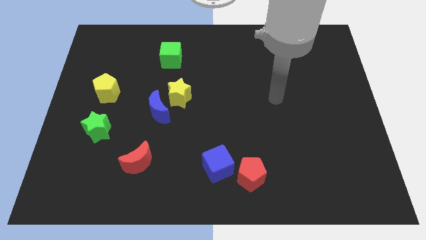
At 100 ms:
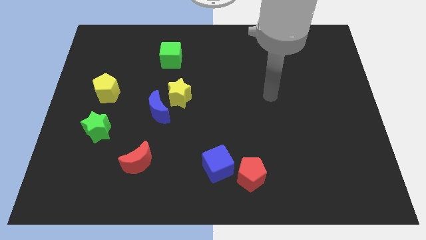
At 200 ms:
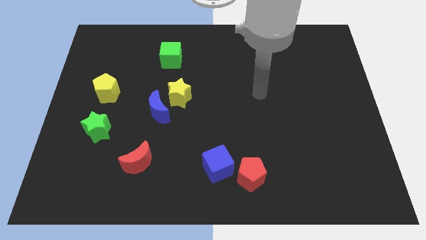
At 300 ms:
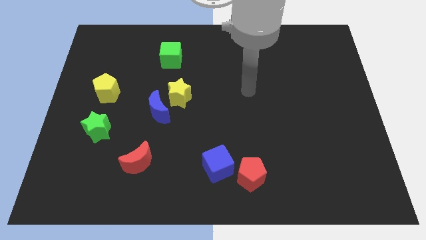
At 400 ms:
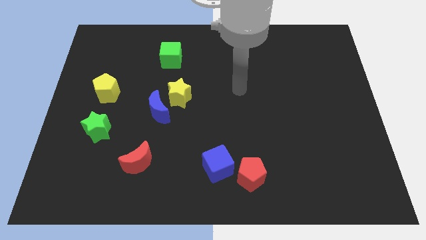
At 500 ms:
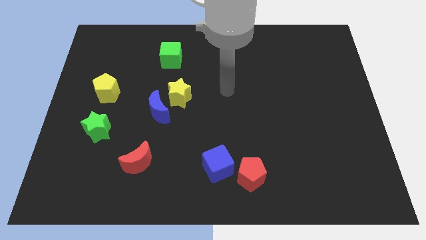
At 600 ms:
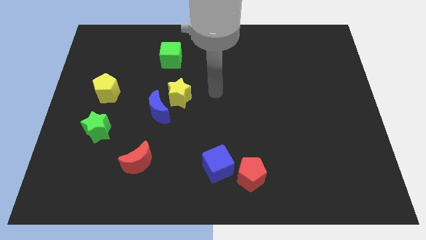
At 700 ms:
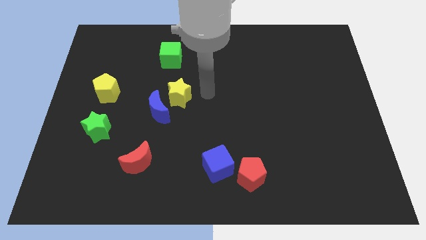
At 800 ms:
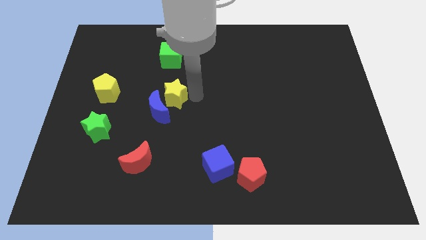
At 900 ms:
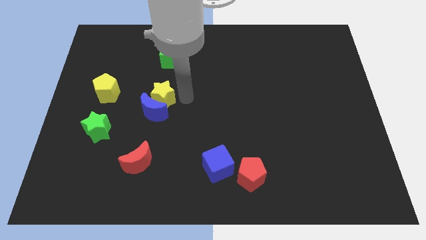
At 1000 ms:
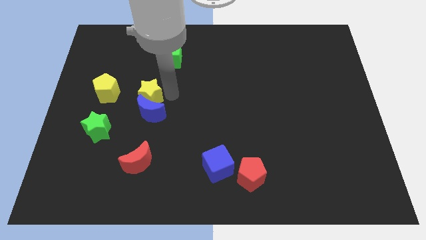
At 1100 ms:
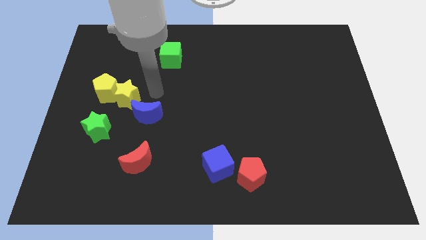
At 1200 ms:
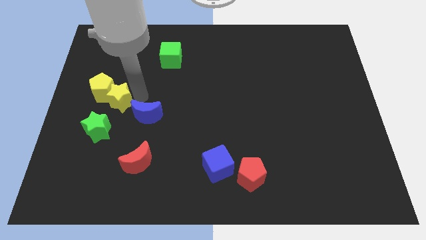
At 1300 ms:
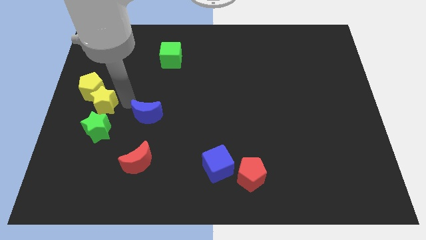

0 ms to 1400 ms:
move the blue moon away from the yellow star

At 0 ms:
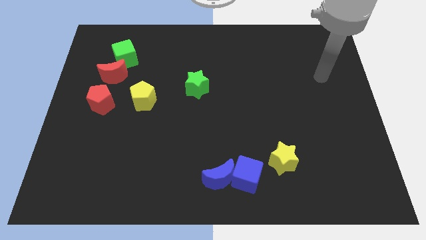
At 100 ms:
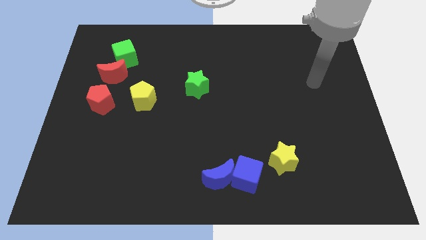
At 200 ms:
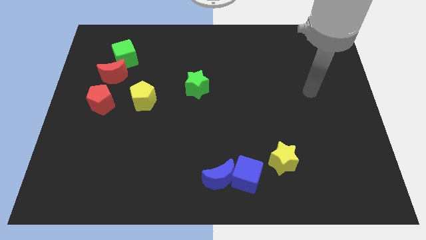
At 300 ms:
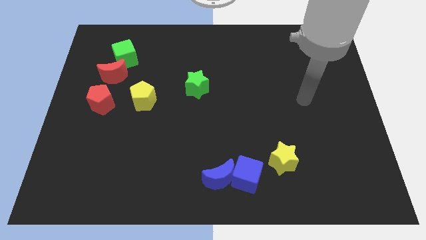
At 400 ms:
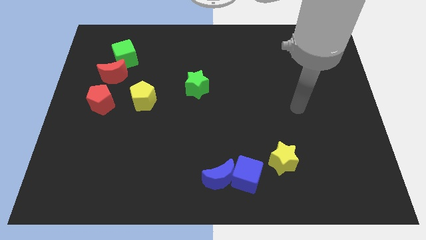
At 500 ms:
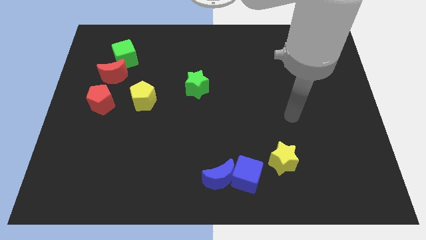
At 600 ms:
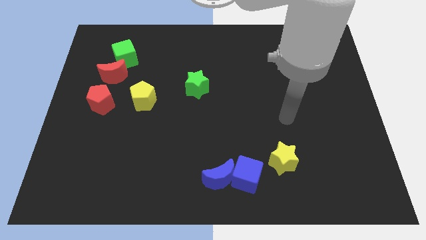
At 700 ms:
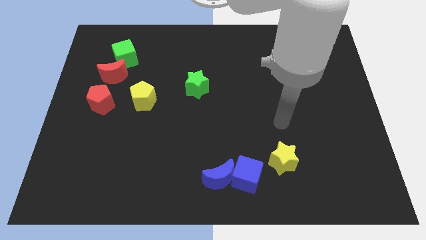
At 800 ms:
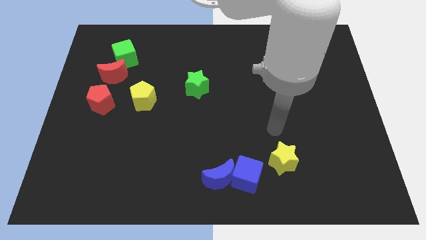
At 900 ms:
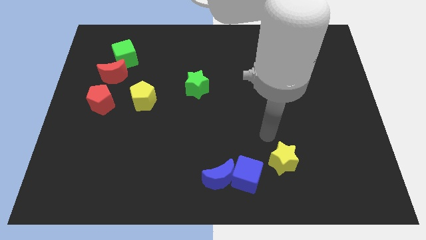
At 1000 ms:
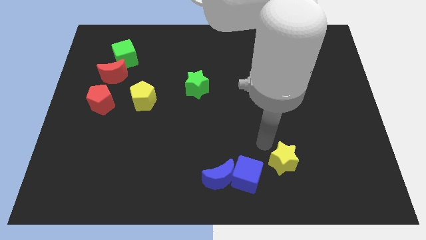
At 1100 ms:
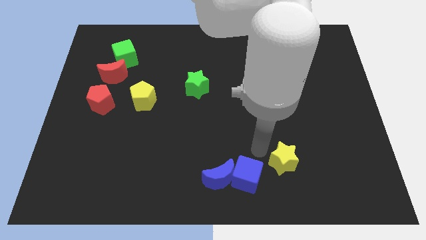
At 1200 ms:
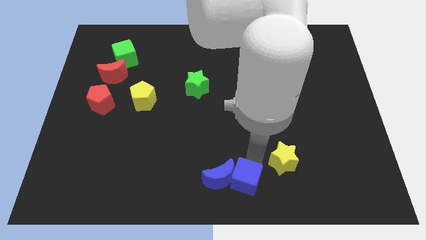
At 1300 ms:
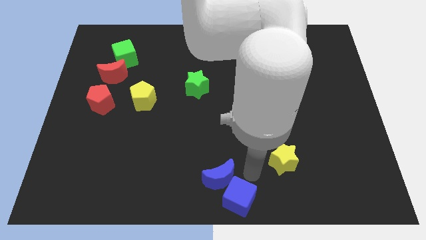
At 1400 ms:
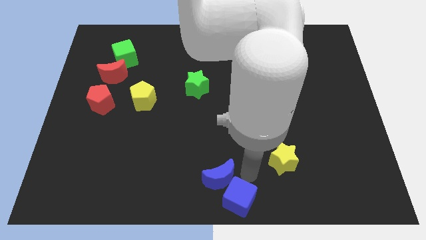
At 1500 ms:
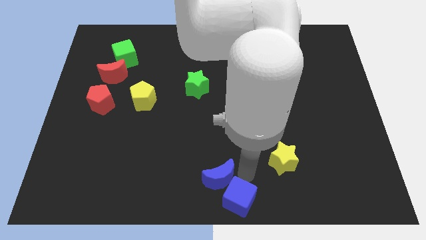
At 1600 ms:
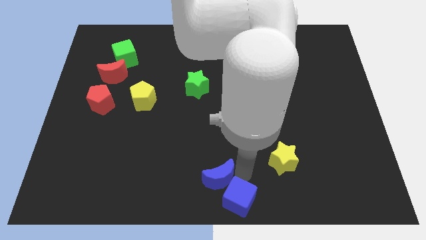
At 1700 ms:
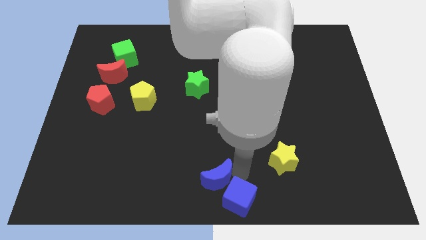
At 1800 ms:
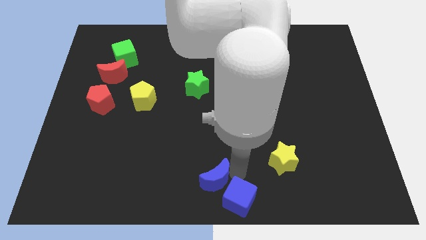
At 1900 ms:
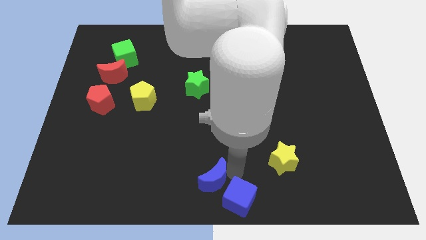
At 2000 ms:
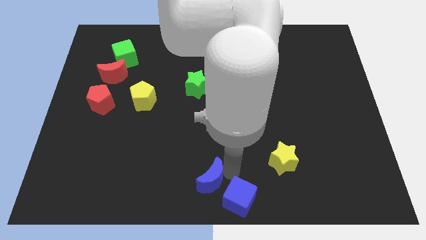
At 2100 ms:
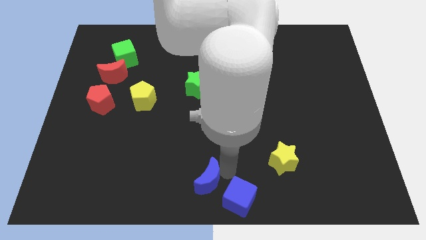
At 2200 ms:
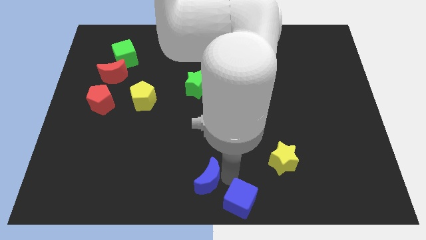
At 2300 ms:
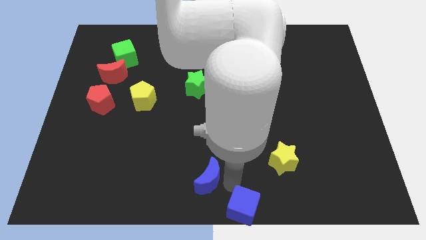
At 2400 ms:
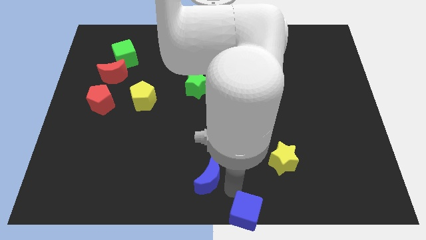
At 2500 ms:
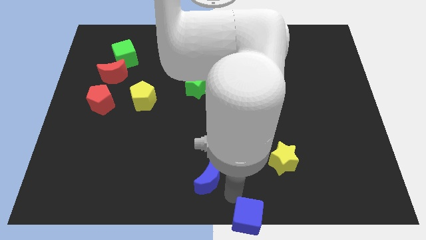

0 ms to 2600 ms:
pull the blue moon apart from the blue cube

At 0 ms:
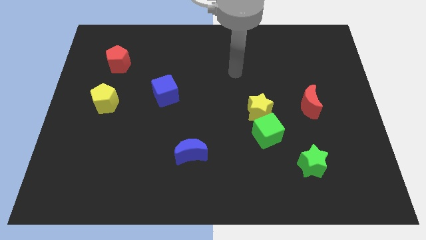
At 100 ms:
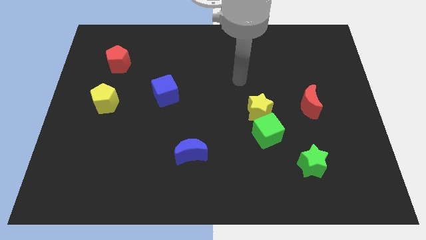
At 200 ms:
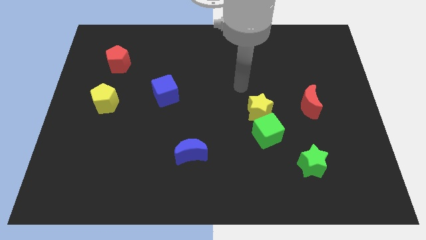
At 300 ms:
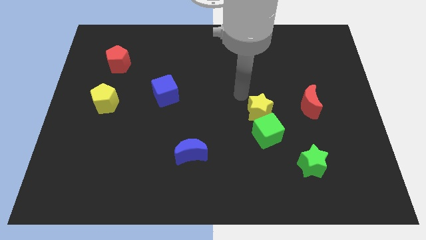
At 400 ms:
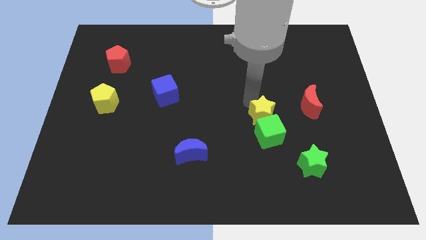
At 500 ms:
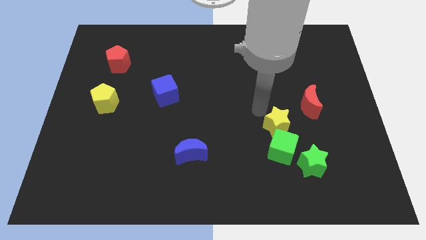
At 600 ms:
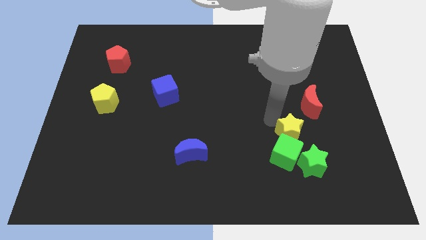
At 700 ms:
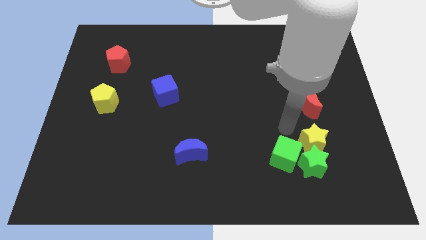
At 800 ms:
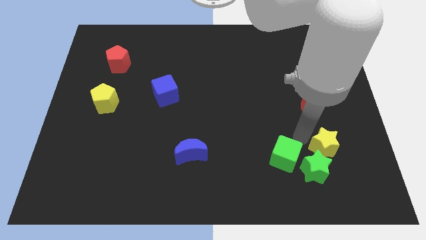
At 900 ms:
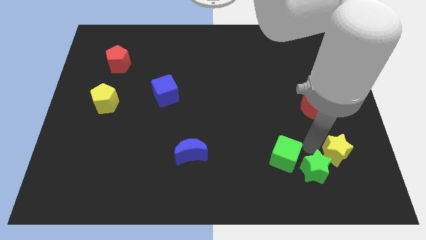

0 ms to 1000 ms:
separate the green cube from the yellow star

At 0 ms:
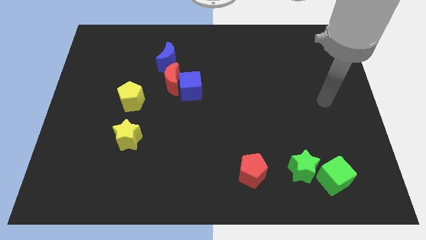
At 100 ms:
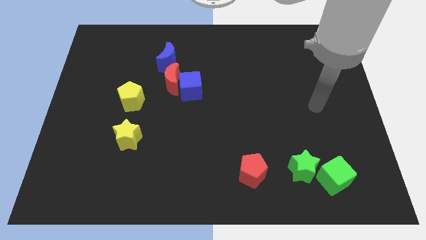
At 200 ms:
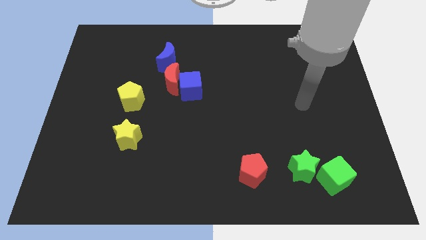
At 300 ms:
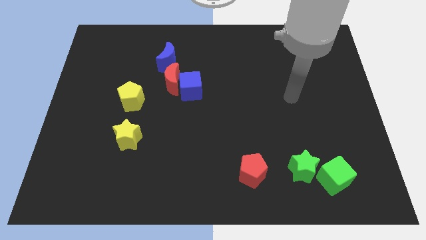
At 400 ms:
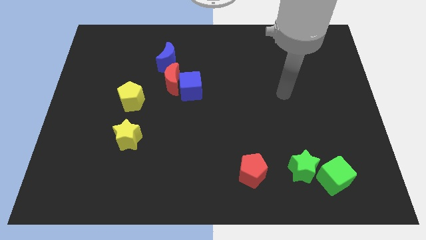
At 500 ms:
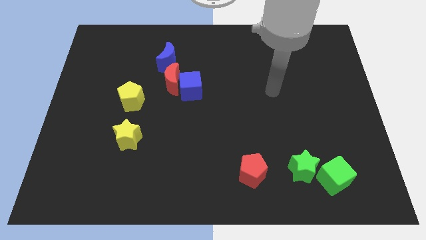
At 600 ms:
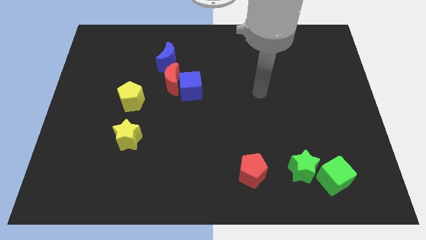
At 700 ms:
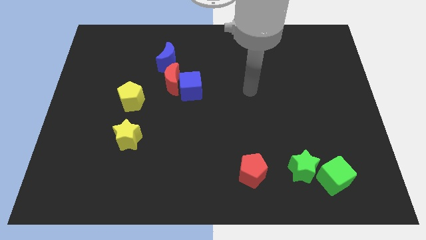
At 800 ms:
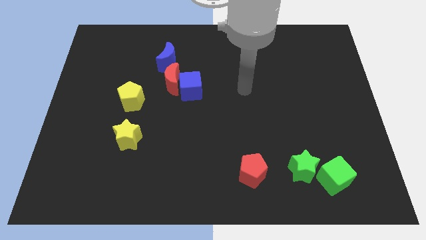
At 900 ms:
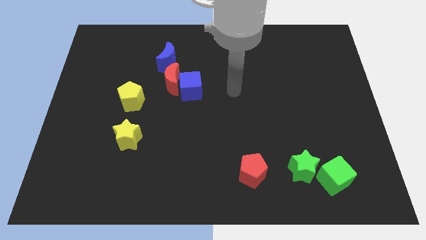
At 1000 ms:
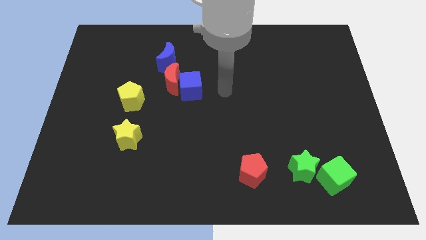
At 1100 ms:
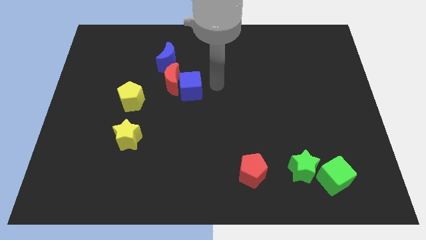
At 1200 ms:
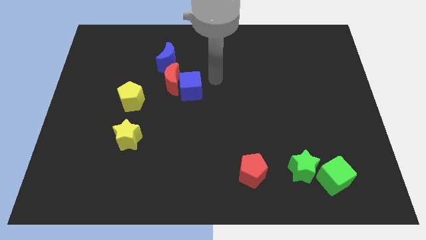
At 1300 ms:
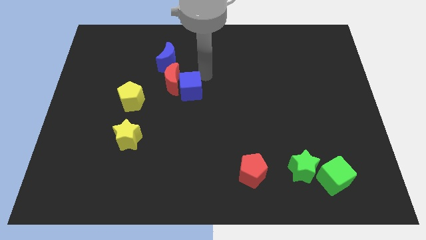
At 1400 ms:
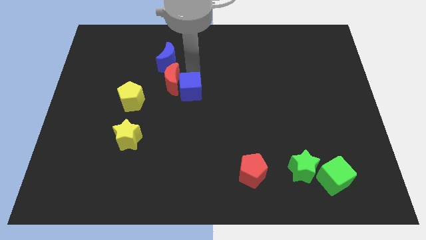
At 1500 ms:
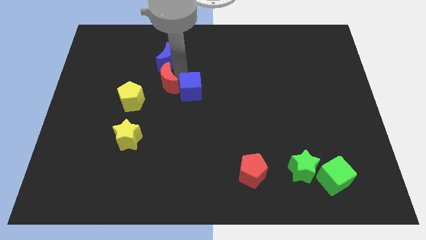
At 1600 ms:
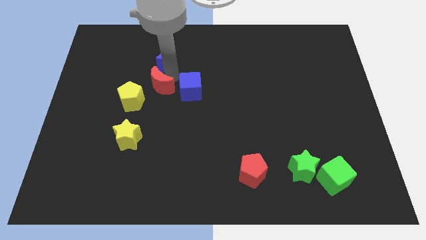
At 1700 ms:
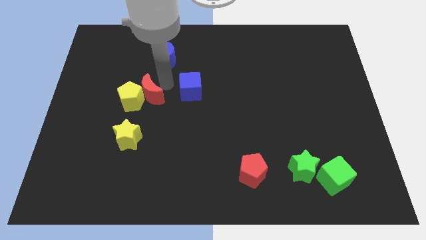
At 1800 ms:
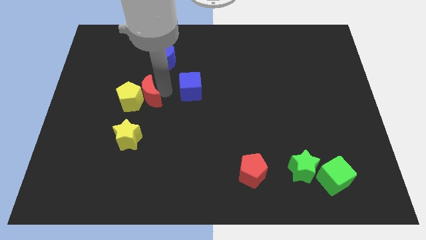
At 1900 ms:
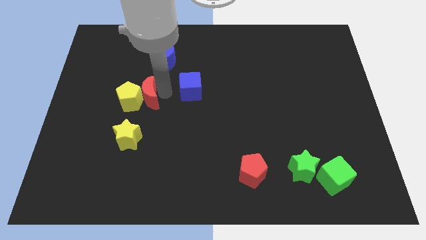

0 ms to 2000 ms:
separate the blue cube from the red moon

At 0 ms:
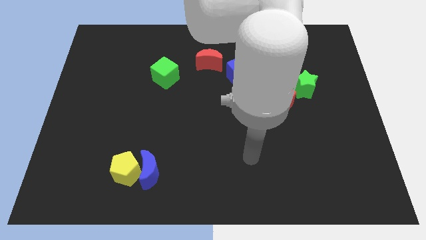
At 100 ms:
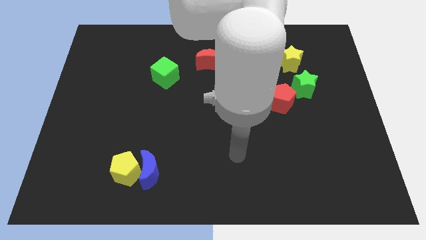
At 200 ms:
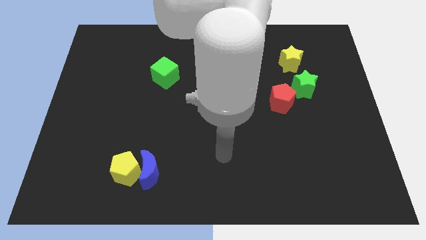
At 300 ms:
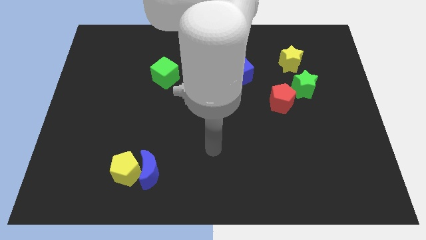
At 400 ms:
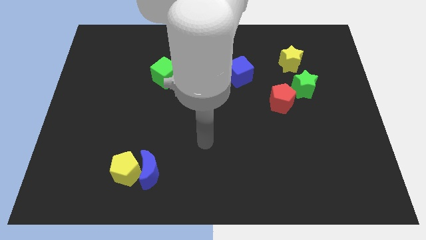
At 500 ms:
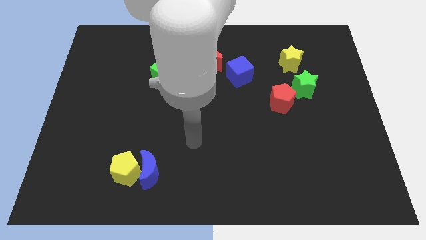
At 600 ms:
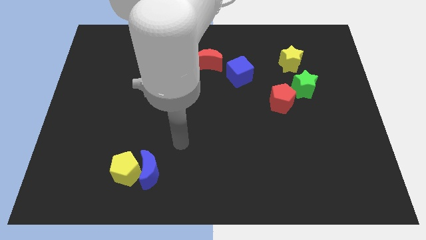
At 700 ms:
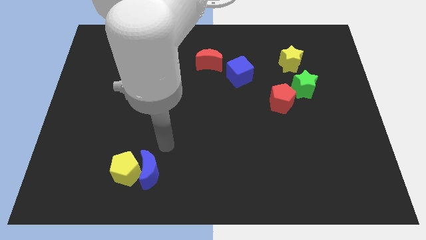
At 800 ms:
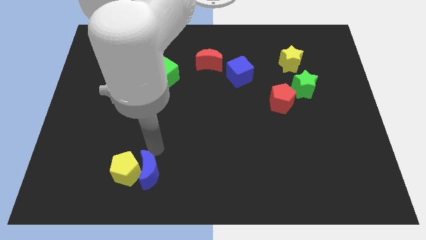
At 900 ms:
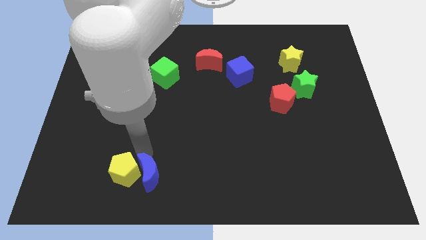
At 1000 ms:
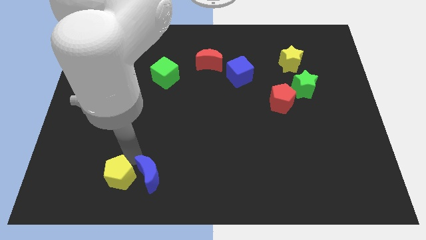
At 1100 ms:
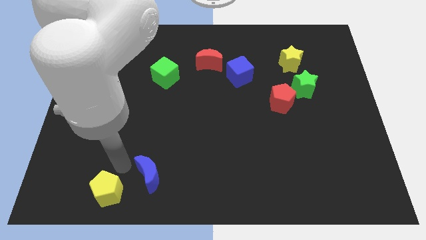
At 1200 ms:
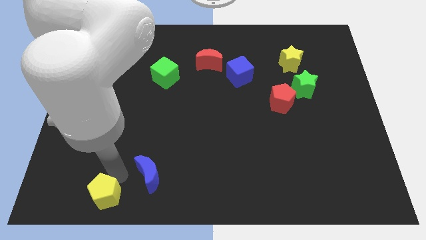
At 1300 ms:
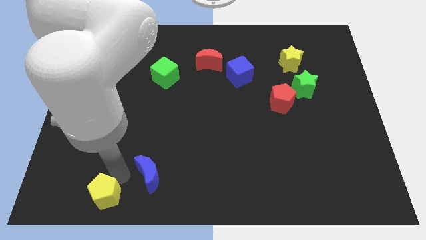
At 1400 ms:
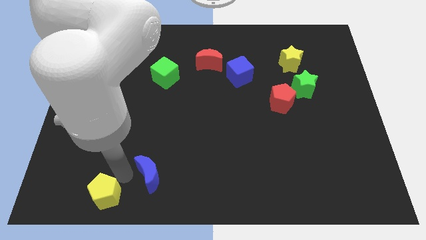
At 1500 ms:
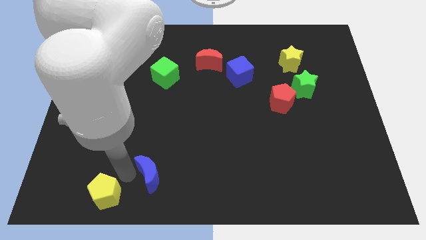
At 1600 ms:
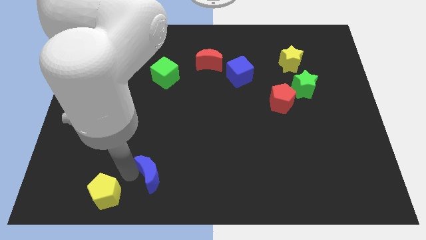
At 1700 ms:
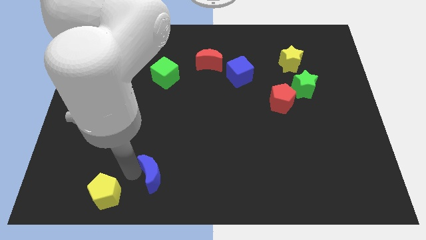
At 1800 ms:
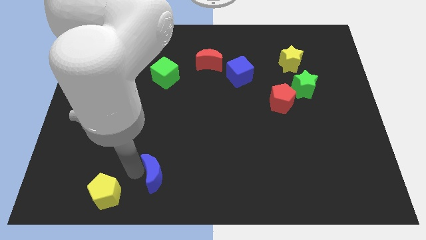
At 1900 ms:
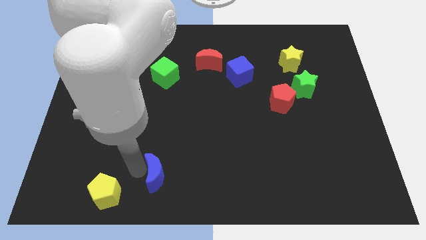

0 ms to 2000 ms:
move the blue moon away from the yellow pentagon

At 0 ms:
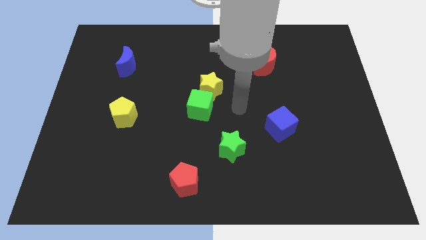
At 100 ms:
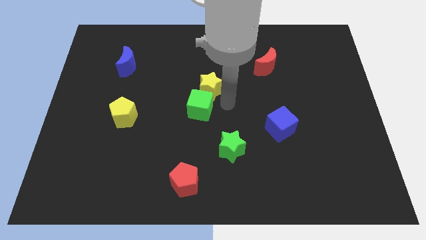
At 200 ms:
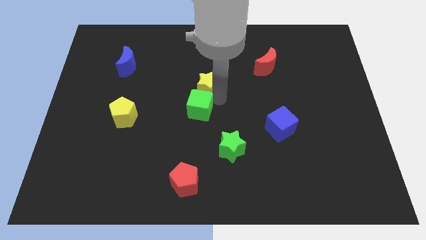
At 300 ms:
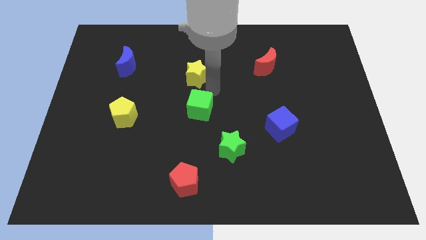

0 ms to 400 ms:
pull the green cube apart from the yellow star
